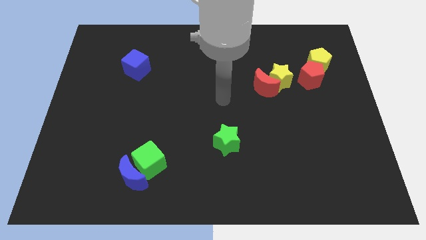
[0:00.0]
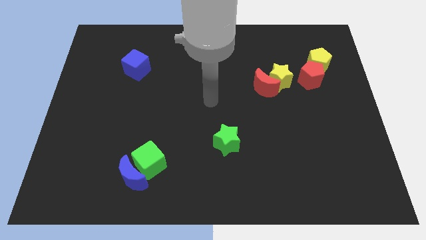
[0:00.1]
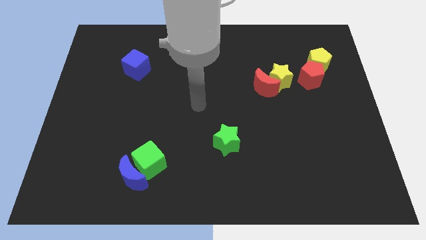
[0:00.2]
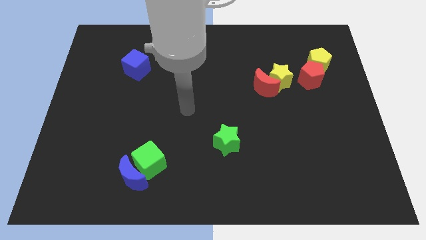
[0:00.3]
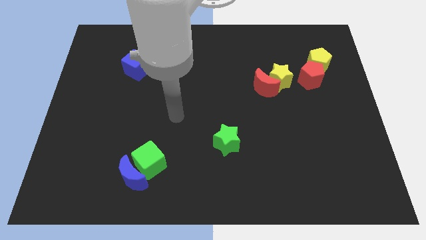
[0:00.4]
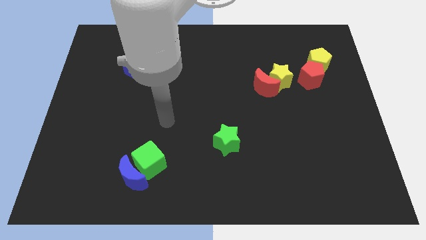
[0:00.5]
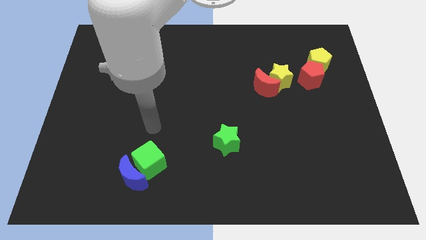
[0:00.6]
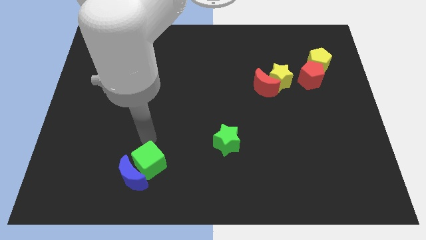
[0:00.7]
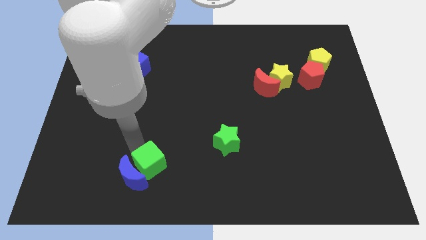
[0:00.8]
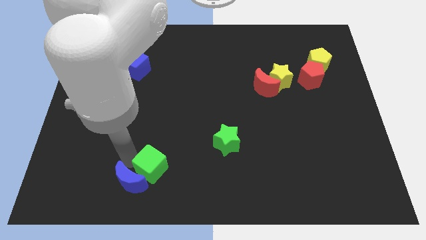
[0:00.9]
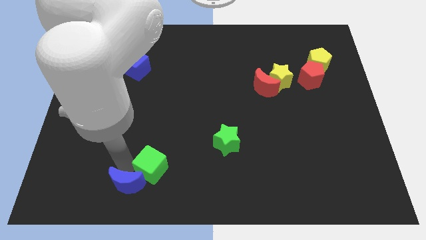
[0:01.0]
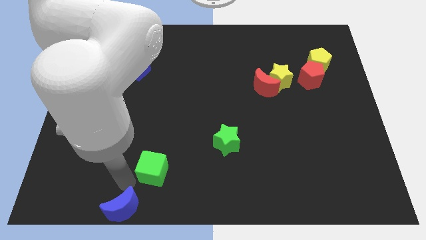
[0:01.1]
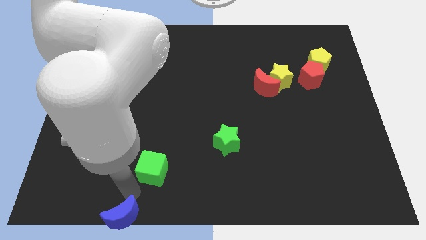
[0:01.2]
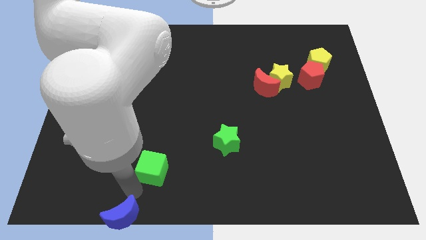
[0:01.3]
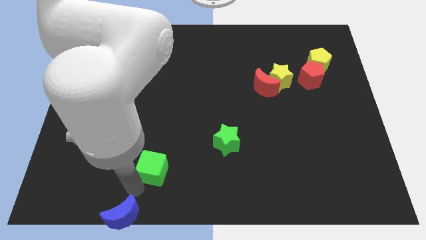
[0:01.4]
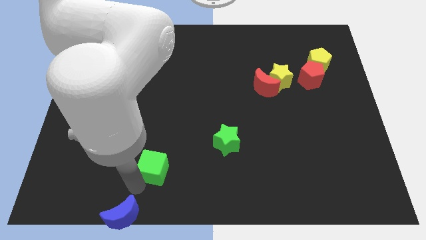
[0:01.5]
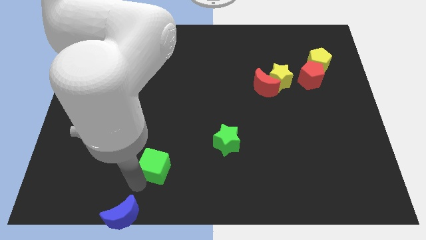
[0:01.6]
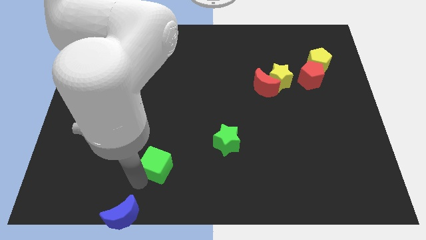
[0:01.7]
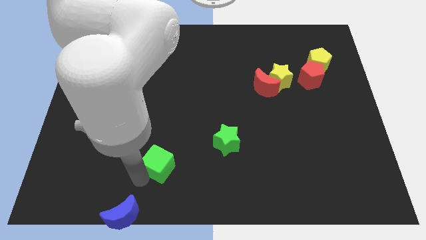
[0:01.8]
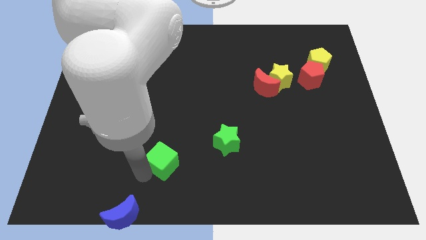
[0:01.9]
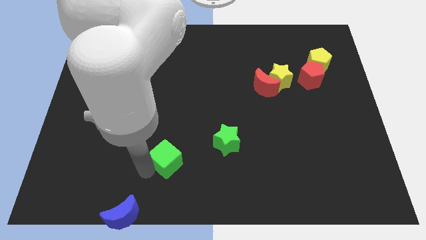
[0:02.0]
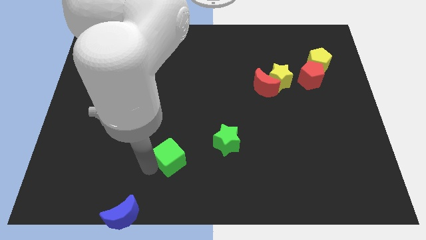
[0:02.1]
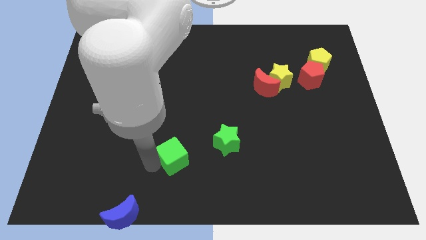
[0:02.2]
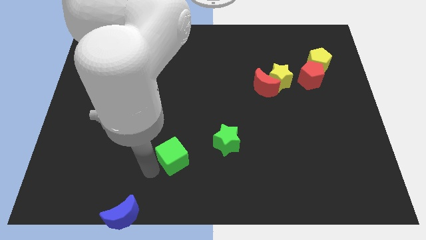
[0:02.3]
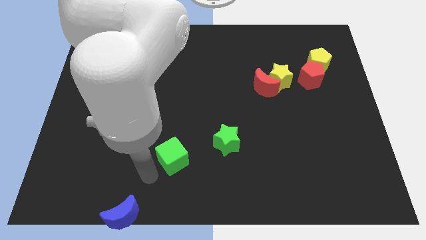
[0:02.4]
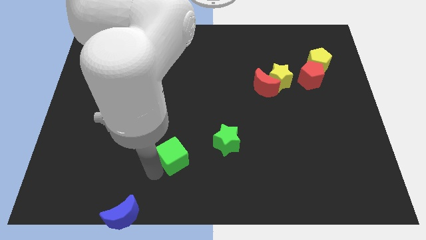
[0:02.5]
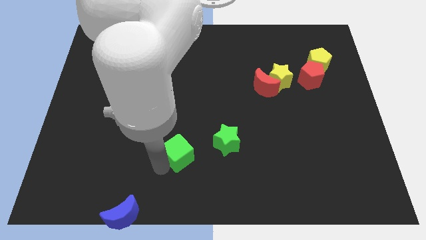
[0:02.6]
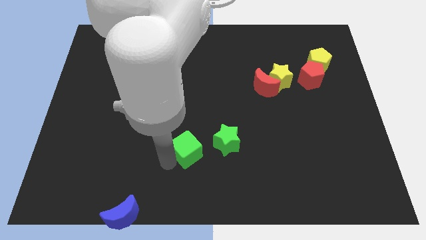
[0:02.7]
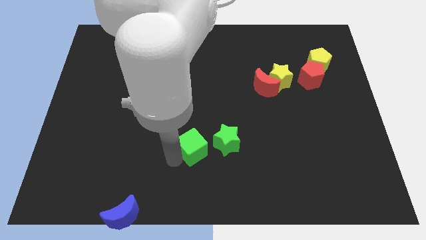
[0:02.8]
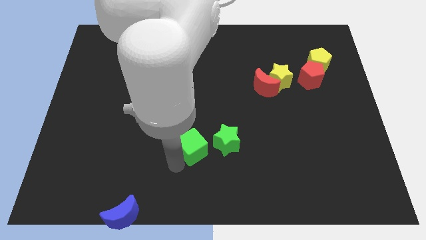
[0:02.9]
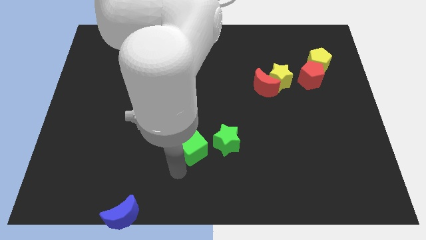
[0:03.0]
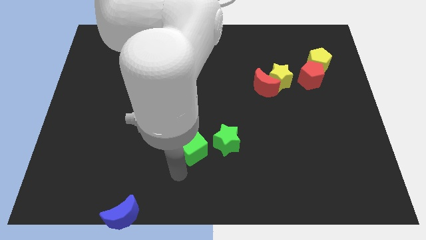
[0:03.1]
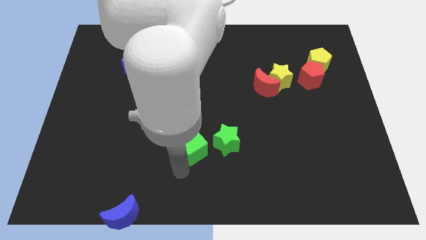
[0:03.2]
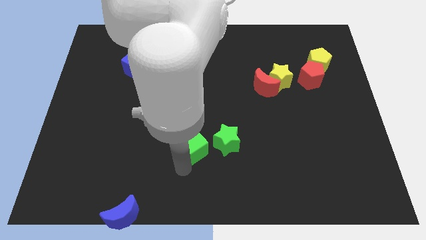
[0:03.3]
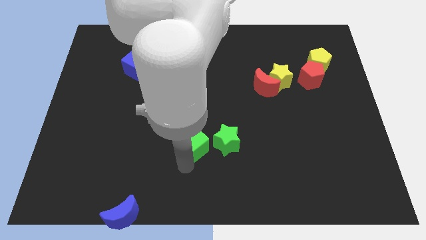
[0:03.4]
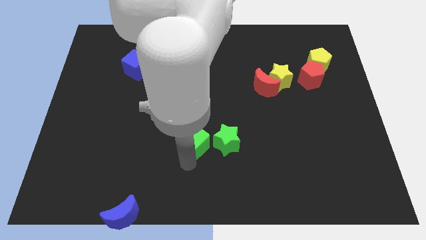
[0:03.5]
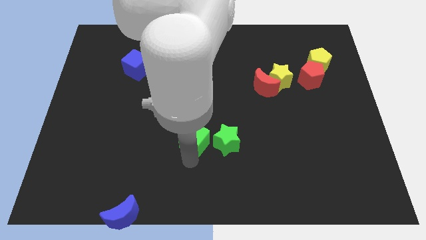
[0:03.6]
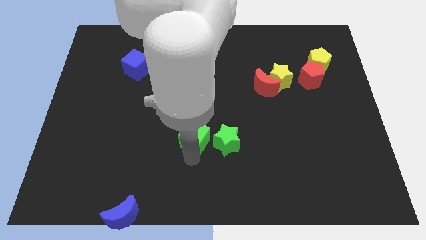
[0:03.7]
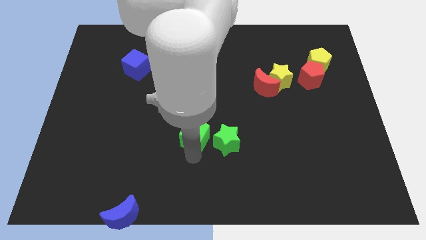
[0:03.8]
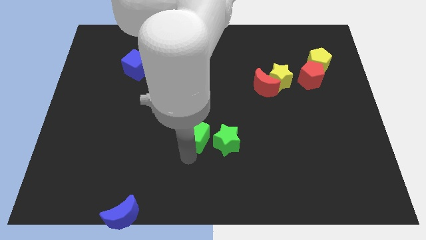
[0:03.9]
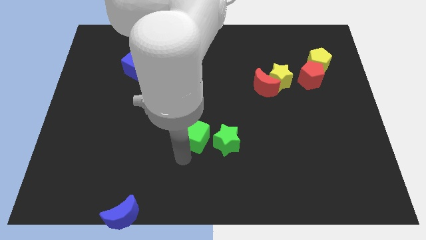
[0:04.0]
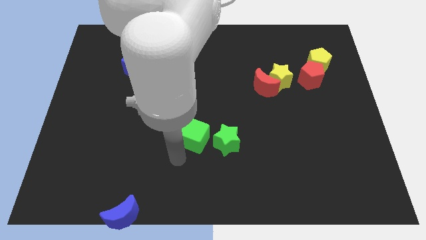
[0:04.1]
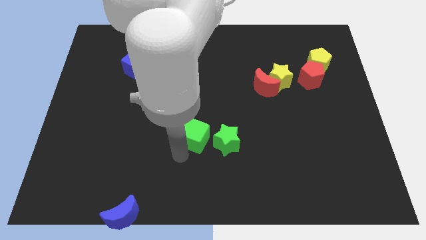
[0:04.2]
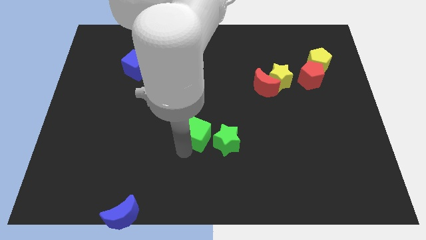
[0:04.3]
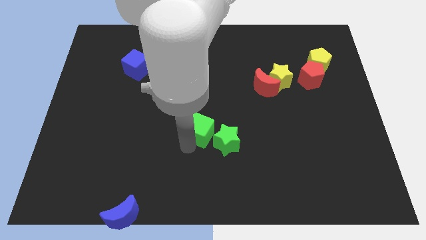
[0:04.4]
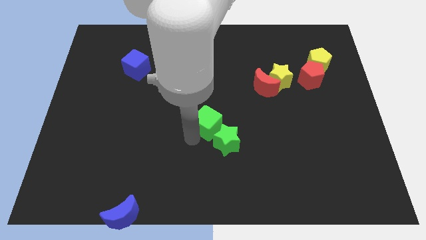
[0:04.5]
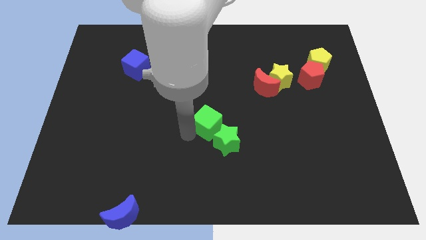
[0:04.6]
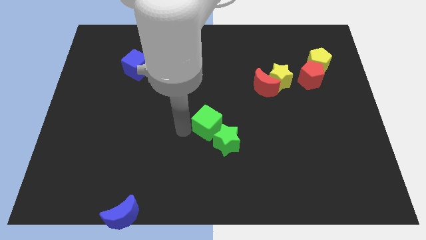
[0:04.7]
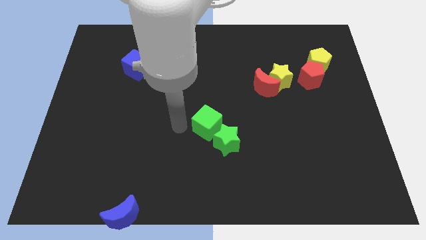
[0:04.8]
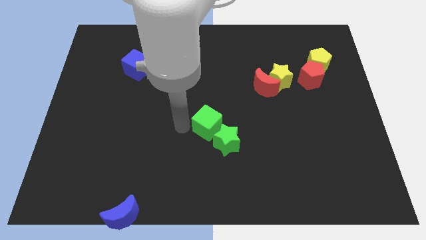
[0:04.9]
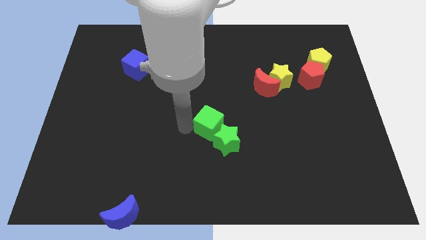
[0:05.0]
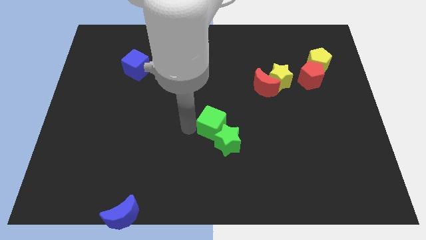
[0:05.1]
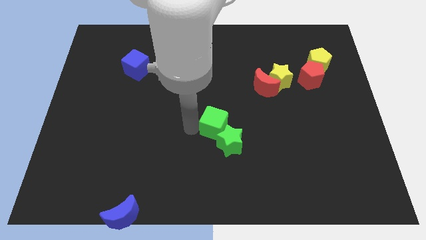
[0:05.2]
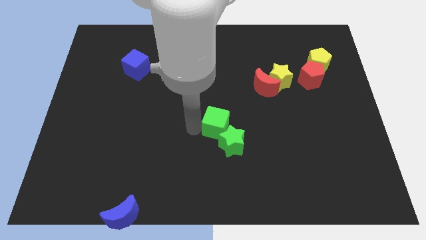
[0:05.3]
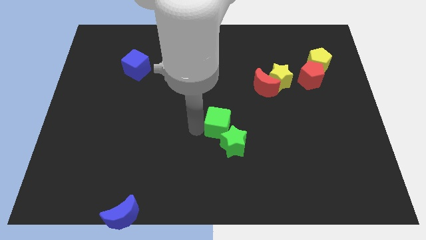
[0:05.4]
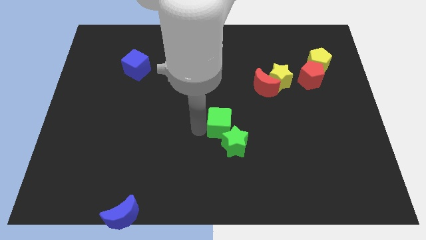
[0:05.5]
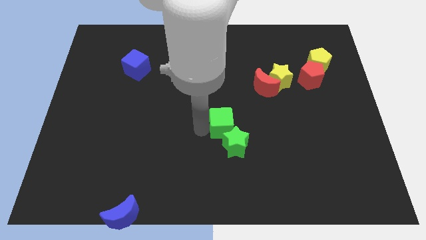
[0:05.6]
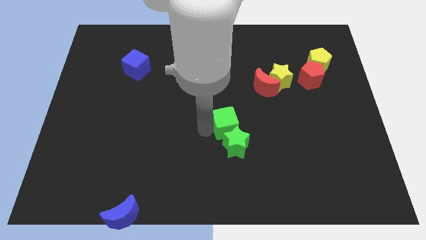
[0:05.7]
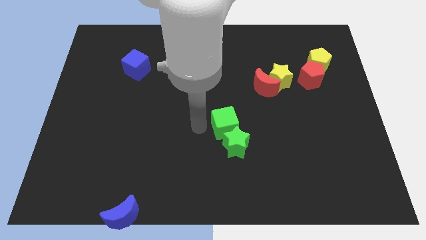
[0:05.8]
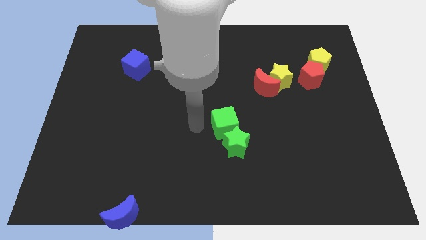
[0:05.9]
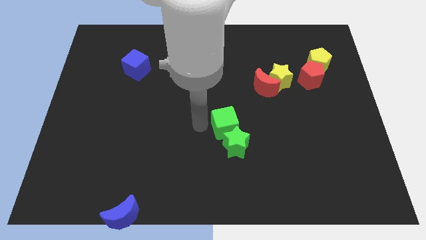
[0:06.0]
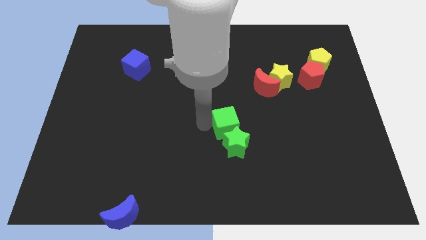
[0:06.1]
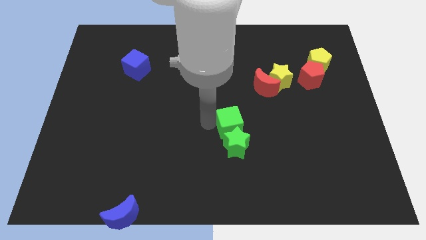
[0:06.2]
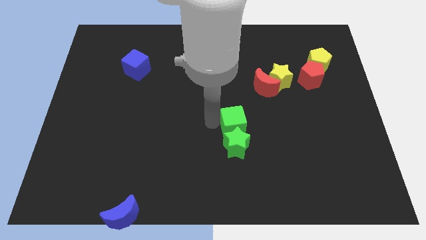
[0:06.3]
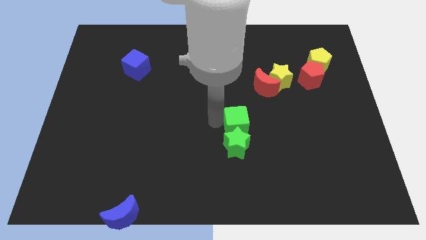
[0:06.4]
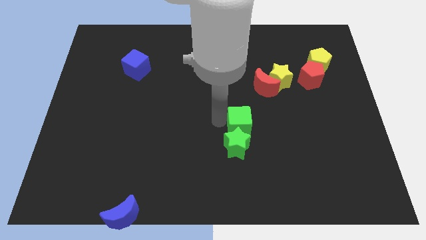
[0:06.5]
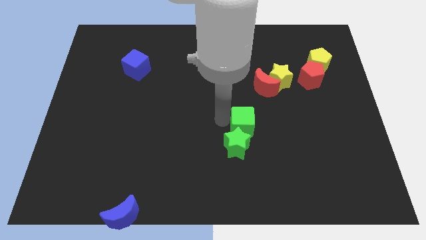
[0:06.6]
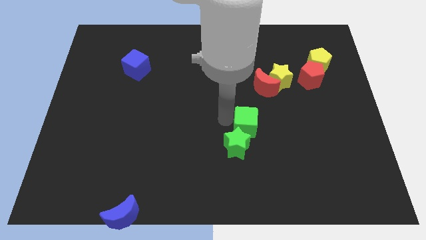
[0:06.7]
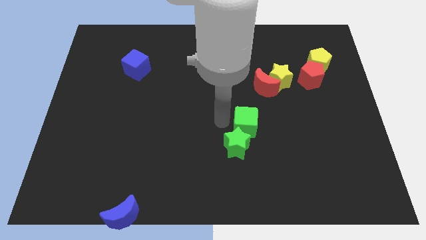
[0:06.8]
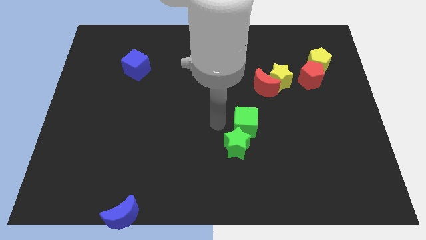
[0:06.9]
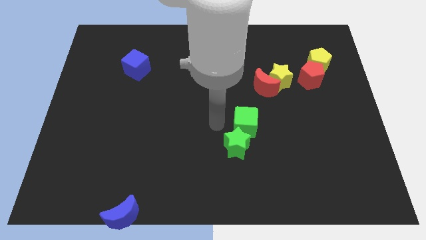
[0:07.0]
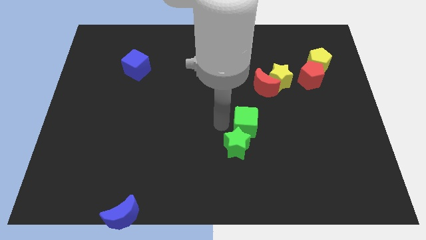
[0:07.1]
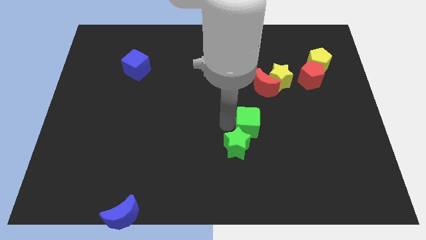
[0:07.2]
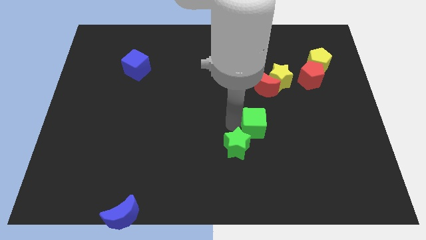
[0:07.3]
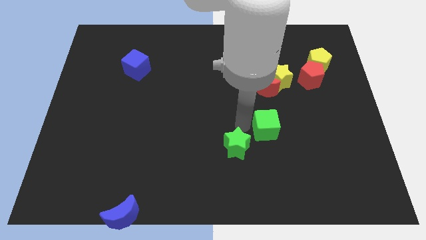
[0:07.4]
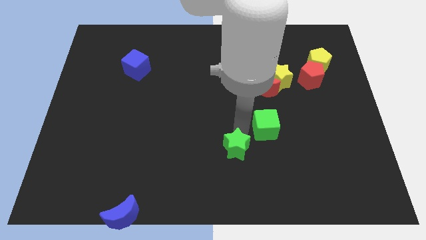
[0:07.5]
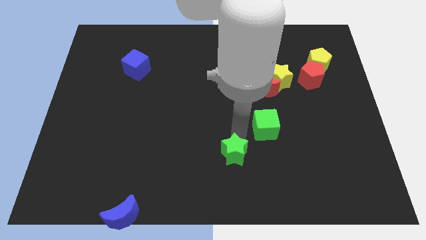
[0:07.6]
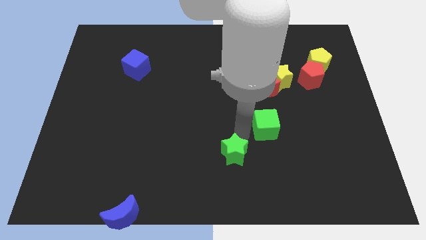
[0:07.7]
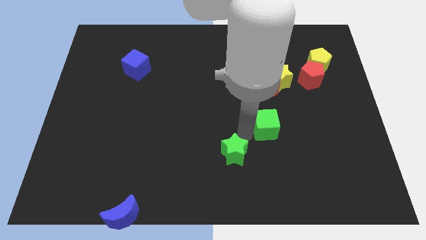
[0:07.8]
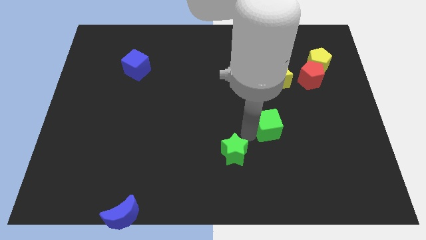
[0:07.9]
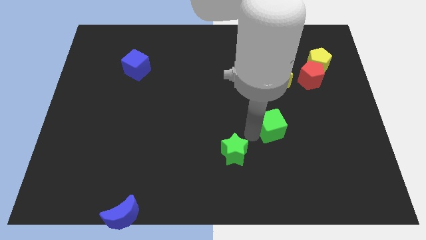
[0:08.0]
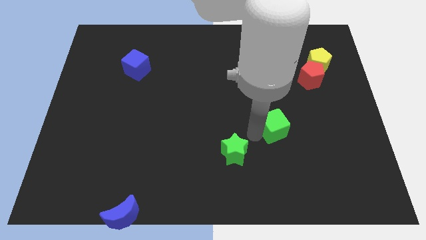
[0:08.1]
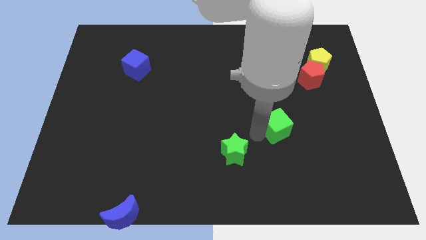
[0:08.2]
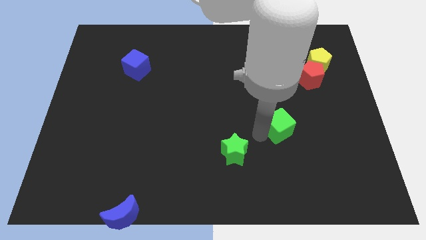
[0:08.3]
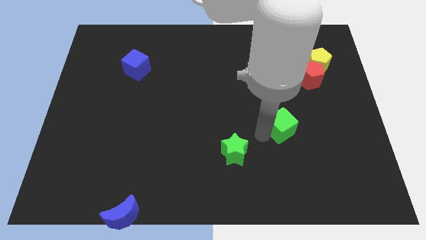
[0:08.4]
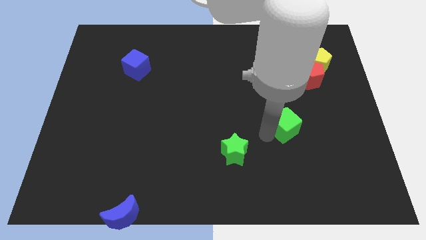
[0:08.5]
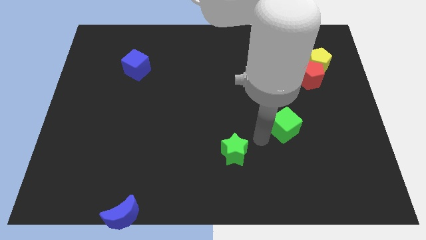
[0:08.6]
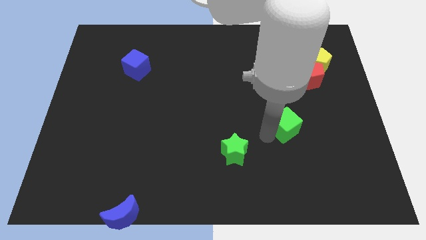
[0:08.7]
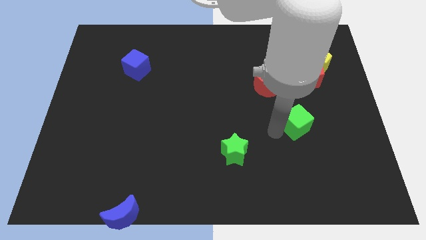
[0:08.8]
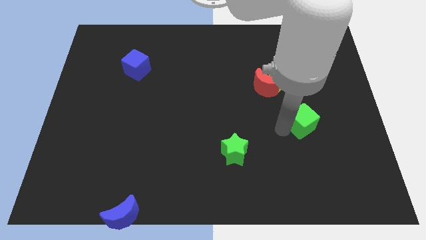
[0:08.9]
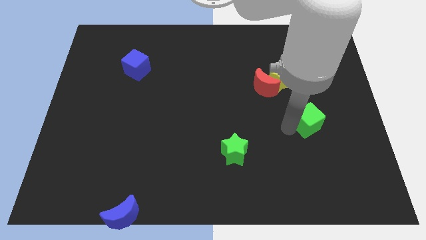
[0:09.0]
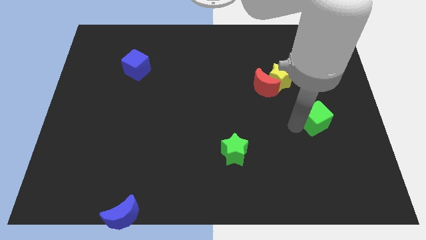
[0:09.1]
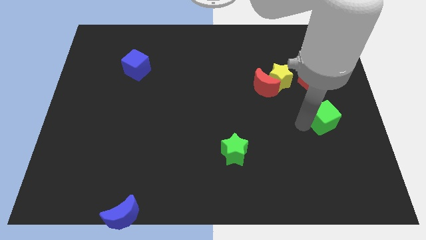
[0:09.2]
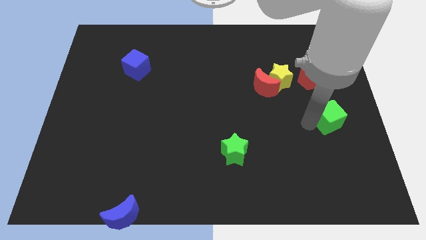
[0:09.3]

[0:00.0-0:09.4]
move the green cube to the right side of the board
